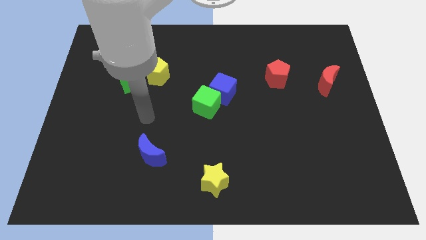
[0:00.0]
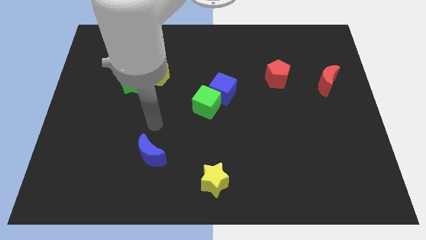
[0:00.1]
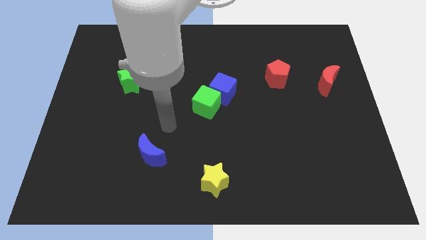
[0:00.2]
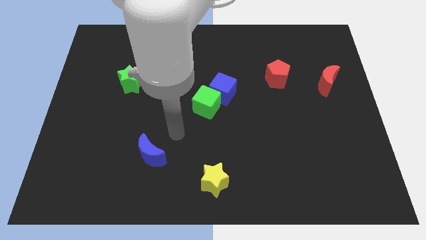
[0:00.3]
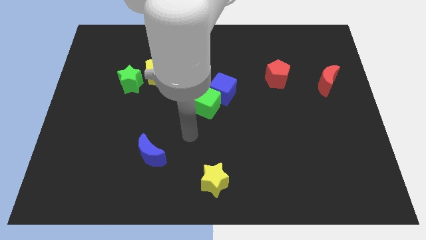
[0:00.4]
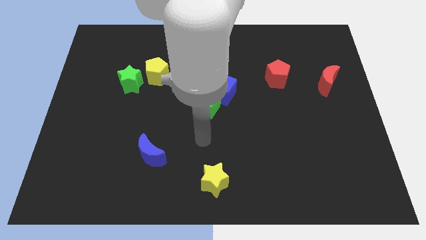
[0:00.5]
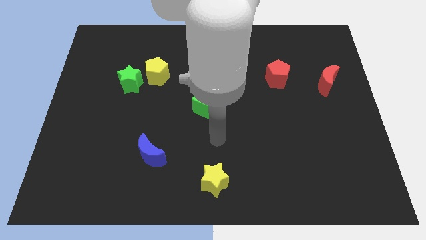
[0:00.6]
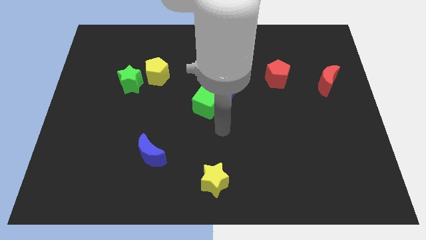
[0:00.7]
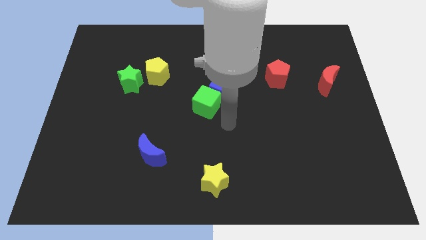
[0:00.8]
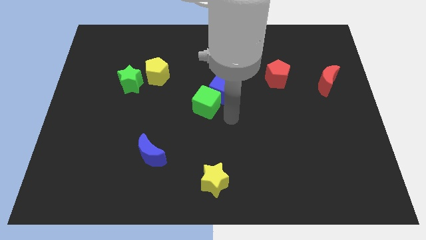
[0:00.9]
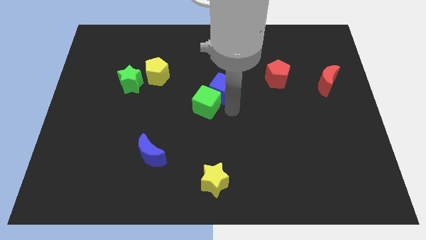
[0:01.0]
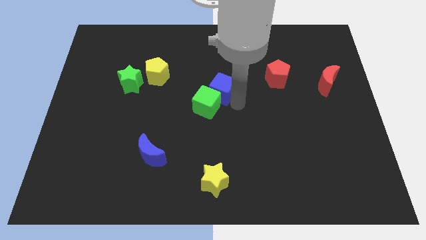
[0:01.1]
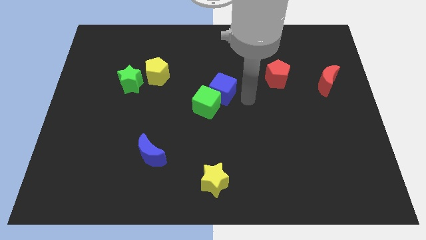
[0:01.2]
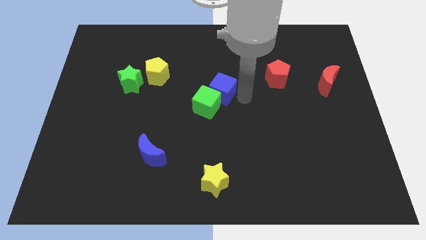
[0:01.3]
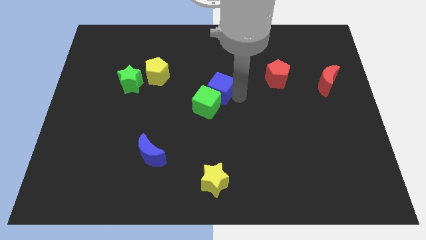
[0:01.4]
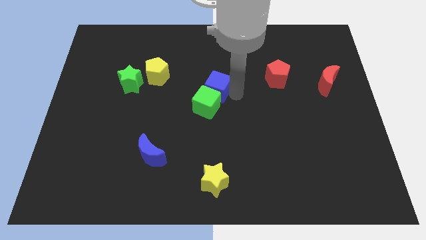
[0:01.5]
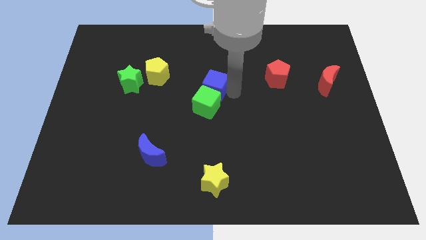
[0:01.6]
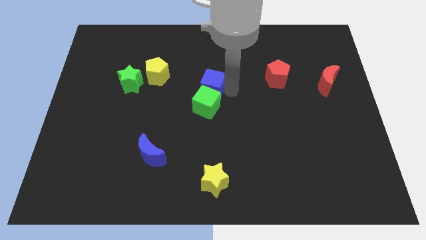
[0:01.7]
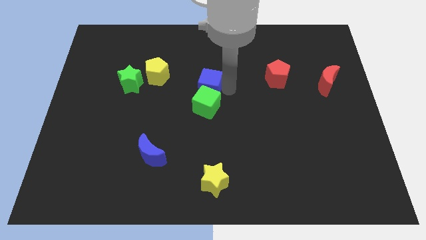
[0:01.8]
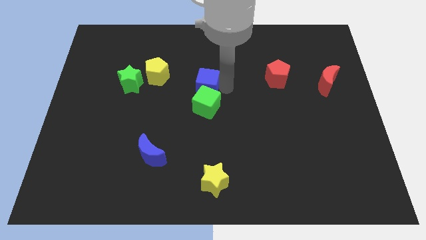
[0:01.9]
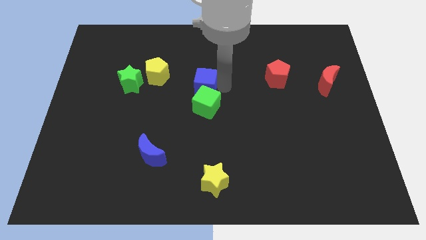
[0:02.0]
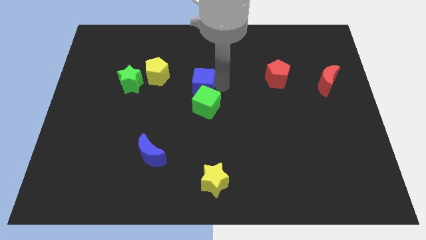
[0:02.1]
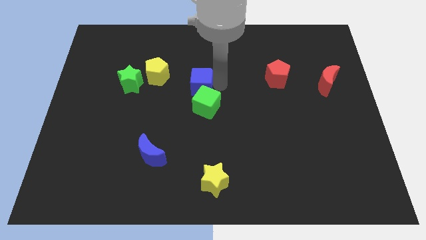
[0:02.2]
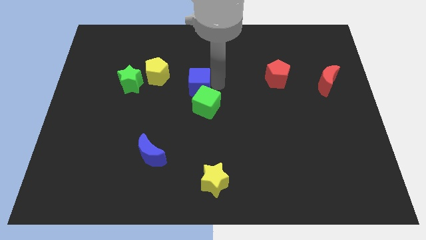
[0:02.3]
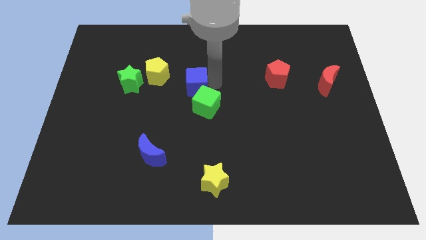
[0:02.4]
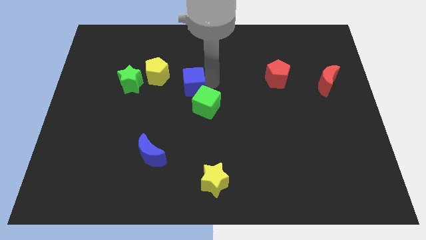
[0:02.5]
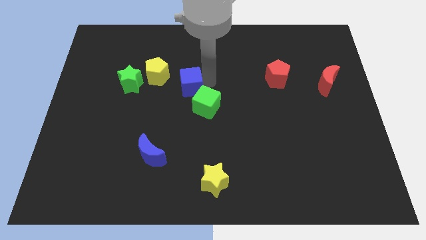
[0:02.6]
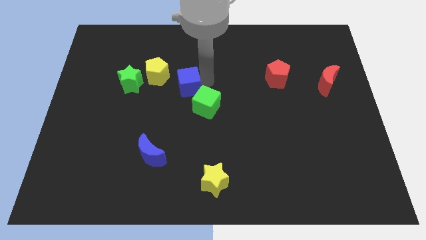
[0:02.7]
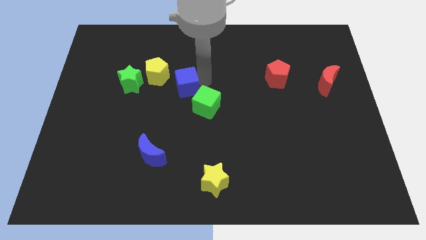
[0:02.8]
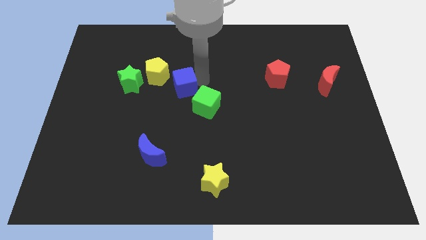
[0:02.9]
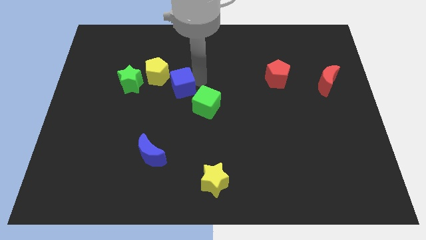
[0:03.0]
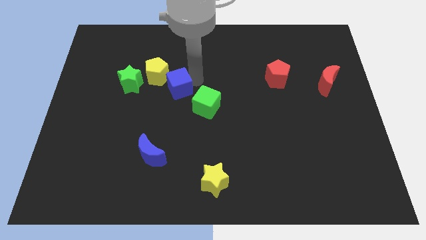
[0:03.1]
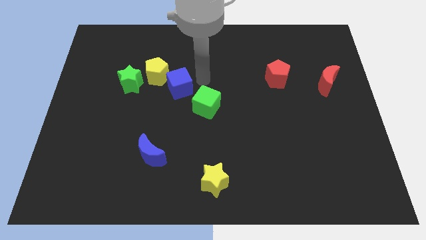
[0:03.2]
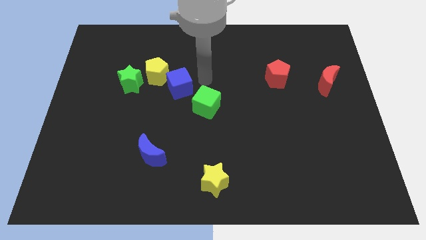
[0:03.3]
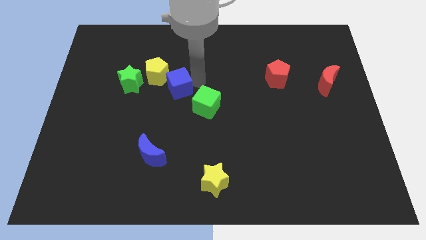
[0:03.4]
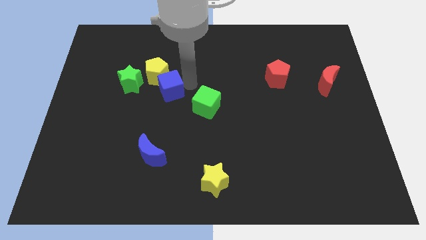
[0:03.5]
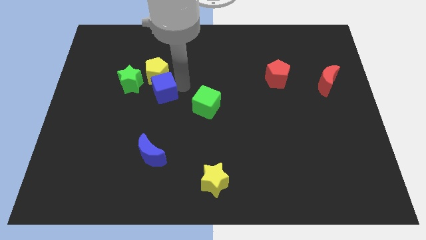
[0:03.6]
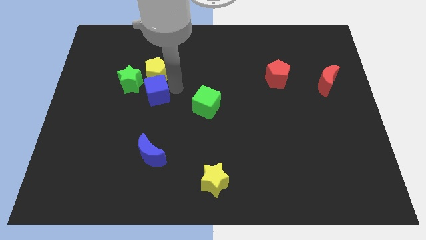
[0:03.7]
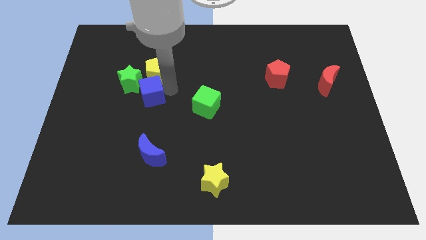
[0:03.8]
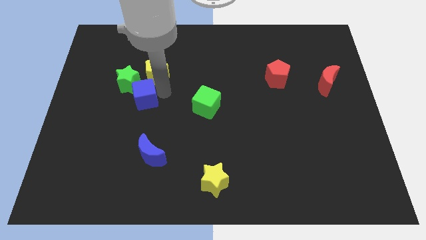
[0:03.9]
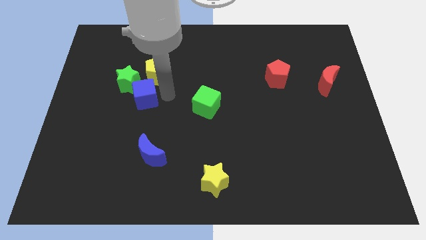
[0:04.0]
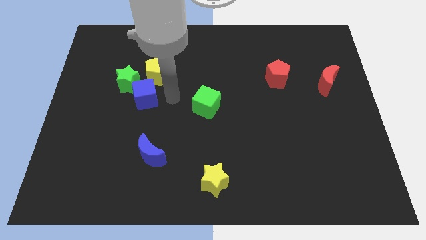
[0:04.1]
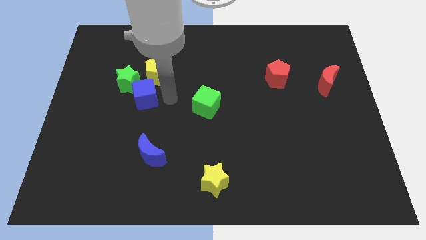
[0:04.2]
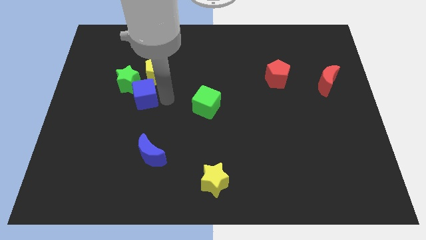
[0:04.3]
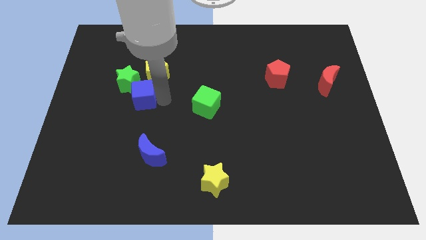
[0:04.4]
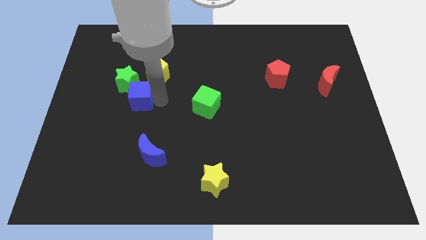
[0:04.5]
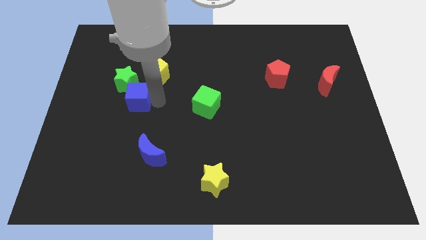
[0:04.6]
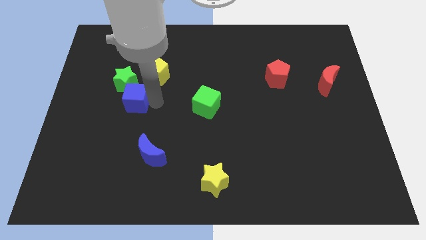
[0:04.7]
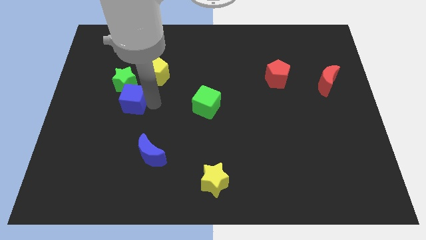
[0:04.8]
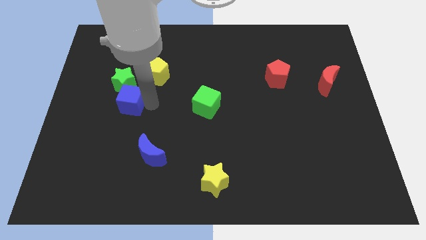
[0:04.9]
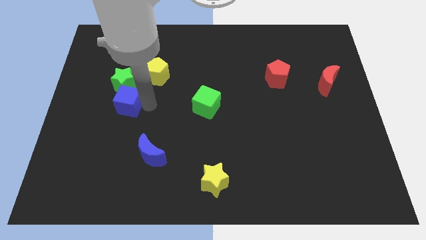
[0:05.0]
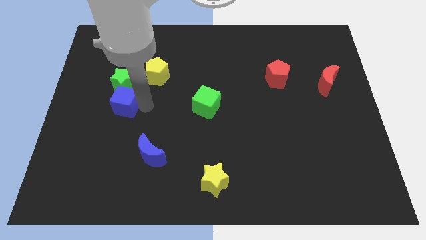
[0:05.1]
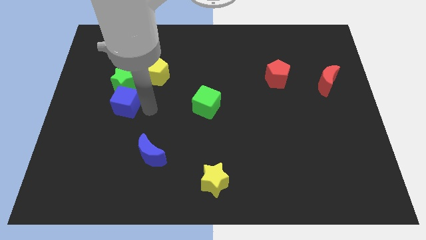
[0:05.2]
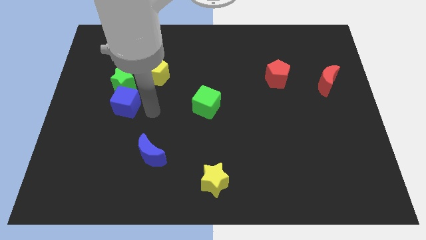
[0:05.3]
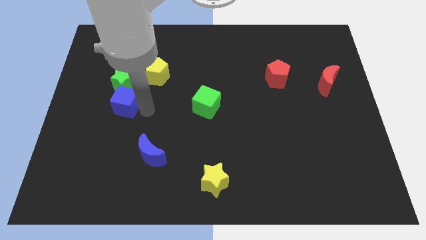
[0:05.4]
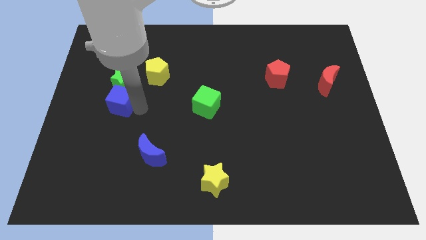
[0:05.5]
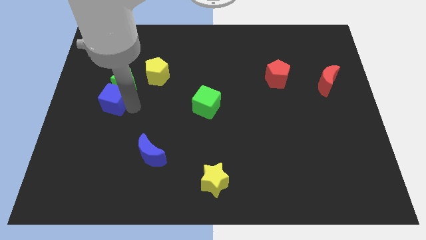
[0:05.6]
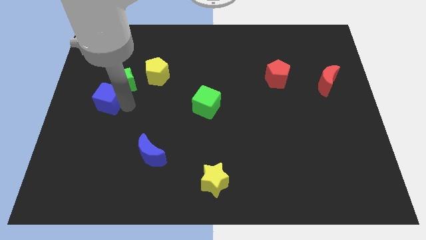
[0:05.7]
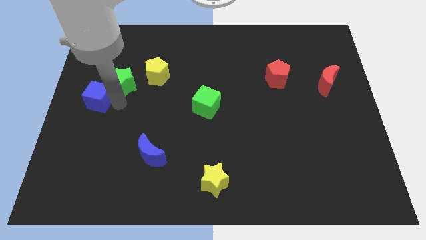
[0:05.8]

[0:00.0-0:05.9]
slide the blue cube to the center left
